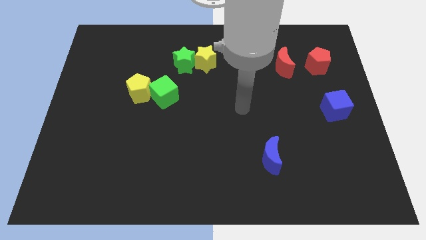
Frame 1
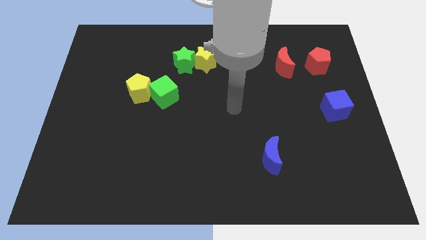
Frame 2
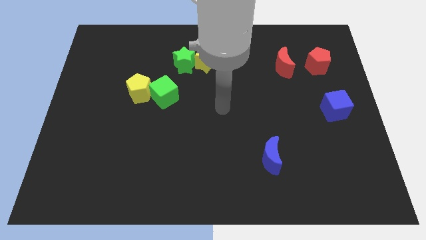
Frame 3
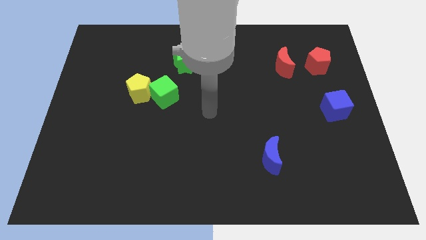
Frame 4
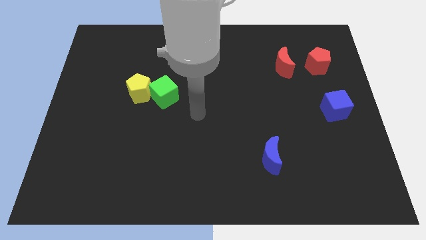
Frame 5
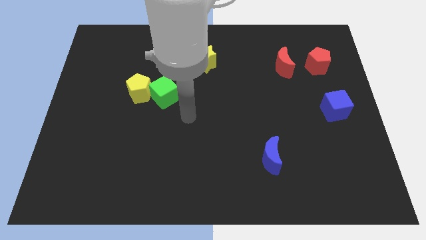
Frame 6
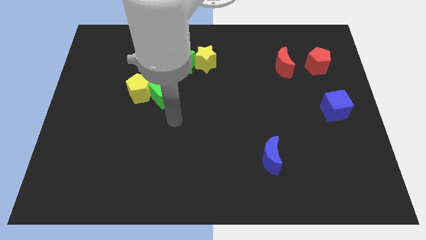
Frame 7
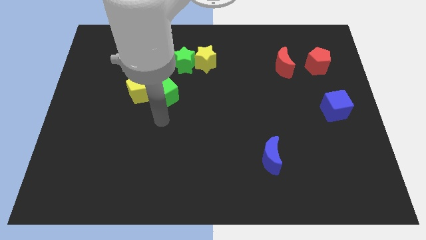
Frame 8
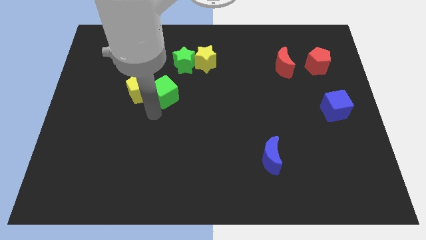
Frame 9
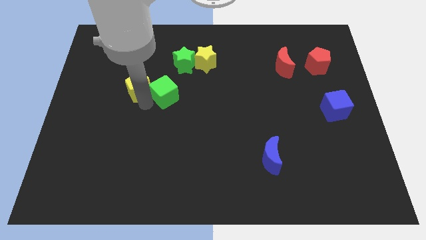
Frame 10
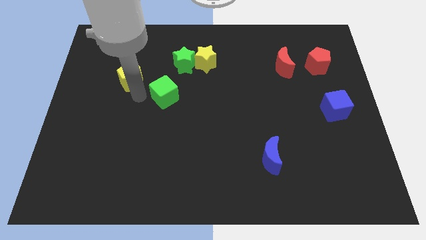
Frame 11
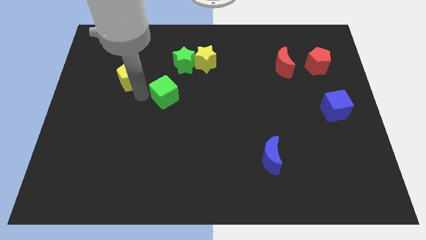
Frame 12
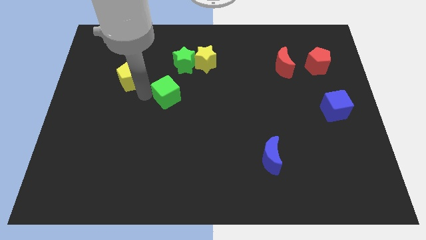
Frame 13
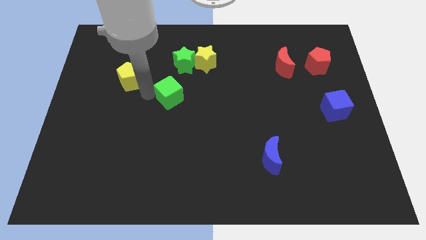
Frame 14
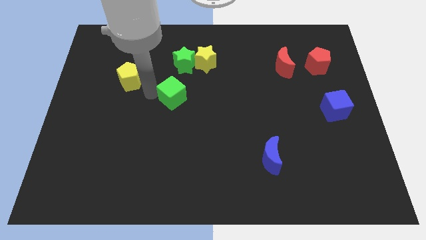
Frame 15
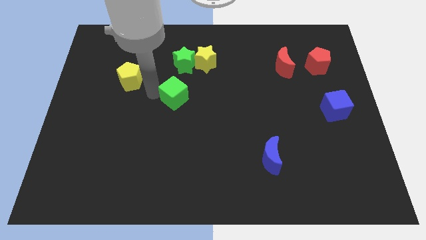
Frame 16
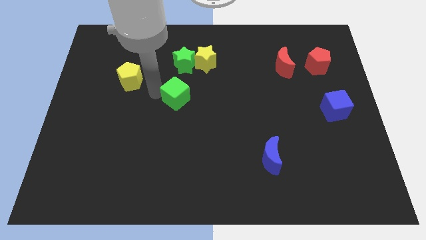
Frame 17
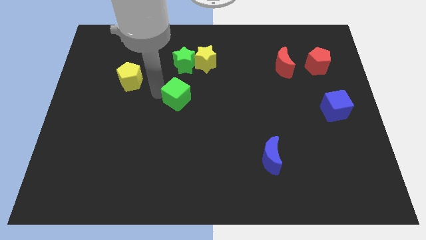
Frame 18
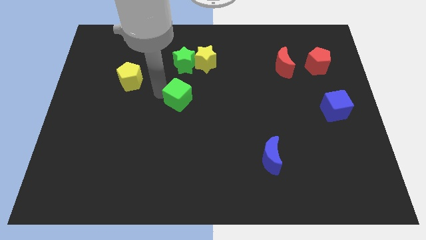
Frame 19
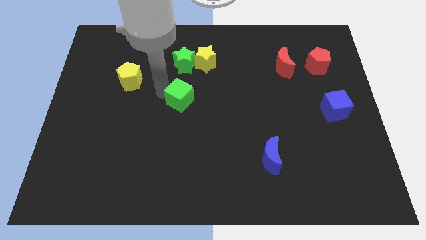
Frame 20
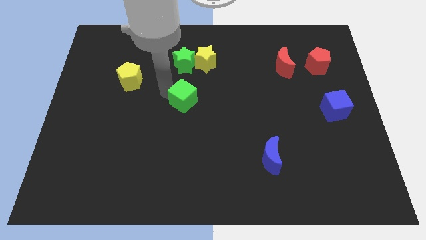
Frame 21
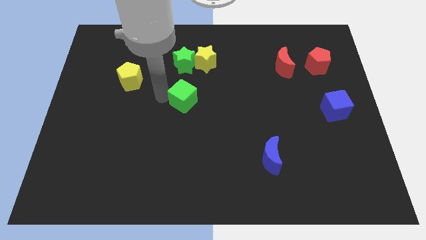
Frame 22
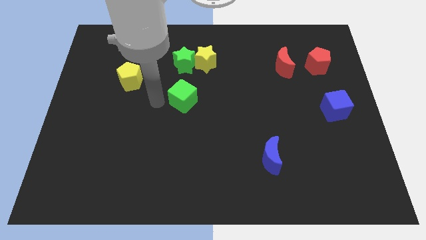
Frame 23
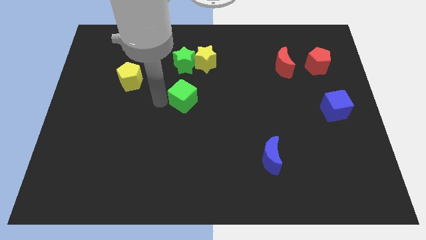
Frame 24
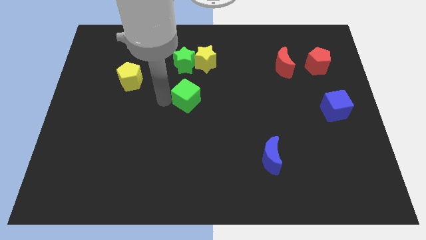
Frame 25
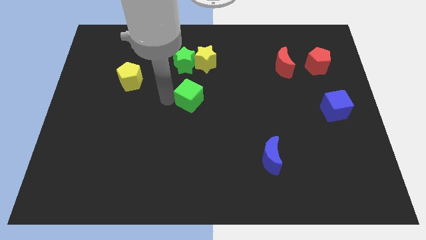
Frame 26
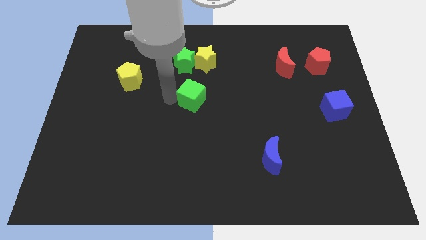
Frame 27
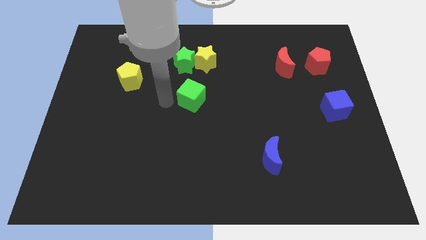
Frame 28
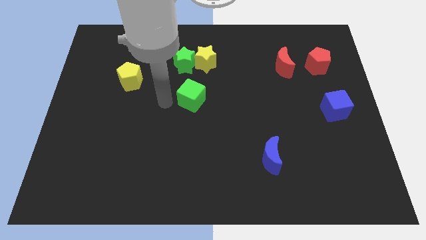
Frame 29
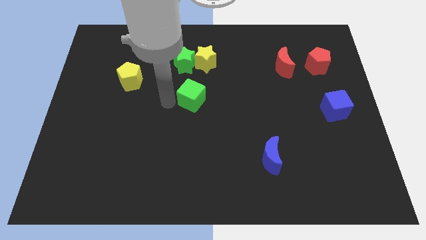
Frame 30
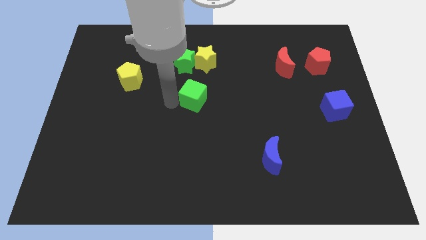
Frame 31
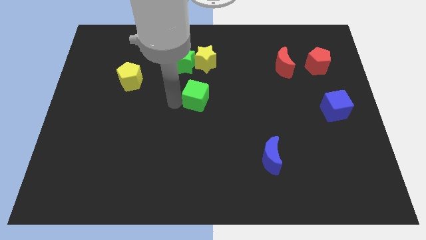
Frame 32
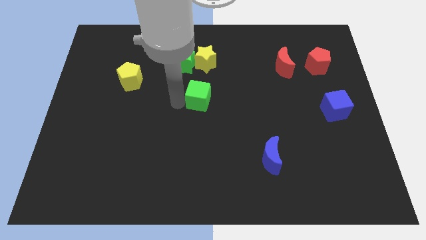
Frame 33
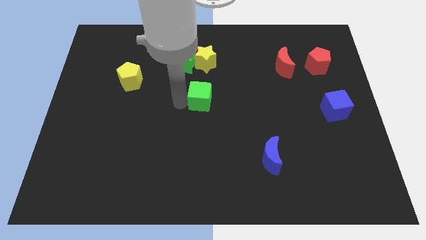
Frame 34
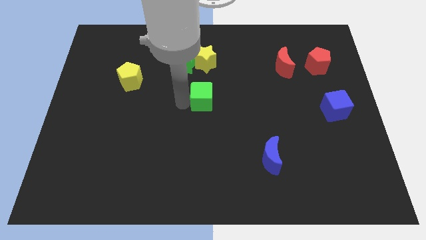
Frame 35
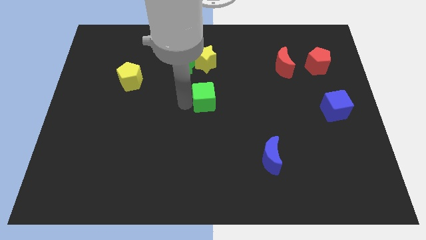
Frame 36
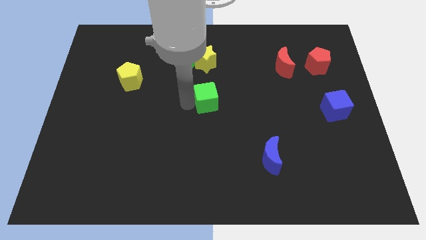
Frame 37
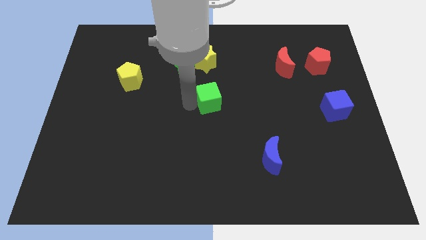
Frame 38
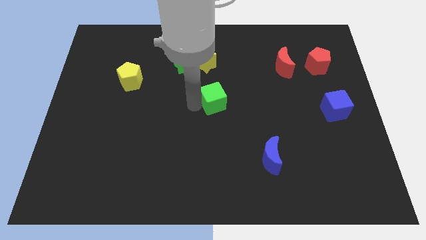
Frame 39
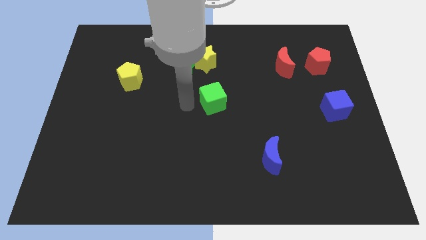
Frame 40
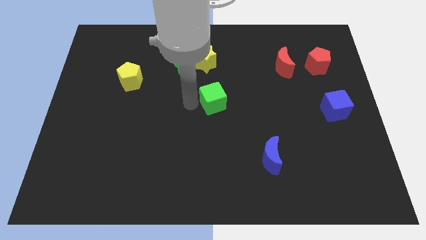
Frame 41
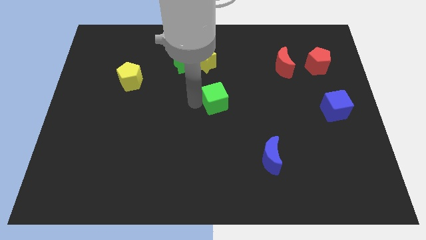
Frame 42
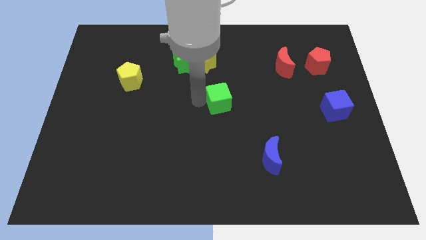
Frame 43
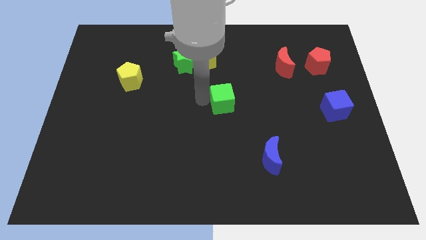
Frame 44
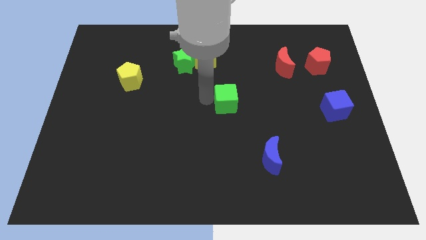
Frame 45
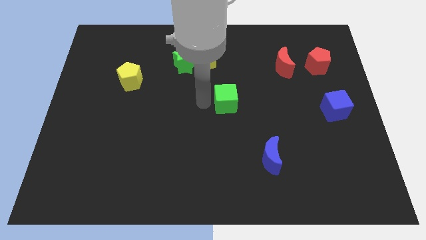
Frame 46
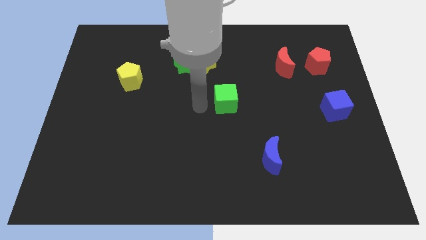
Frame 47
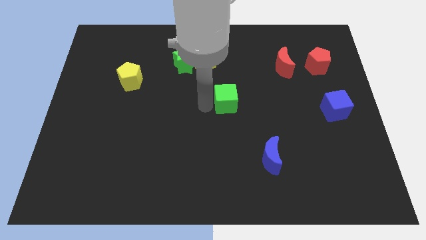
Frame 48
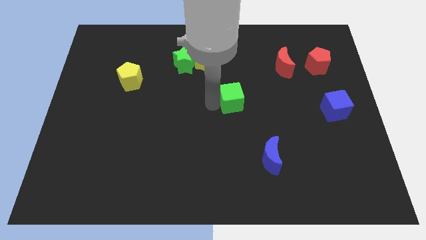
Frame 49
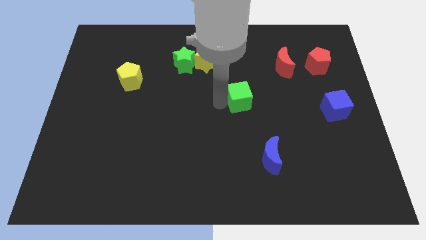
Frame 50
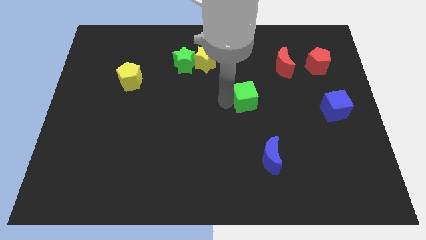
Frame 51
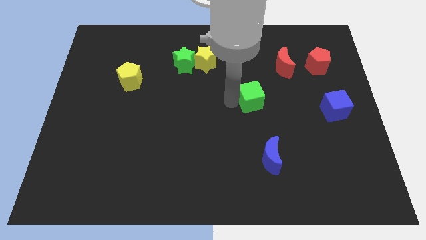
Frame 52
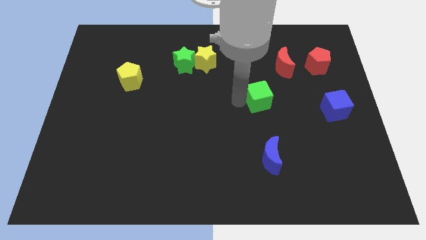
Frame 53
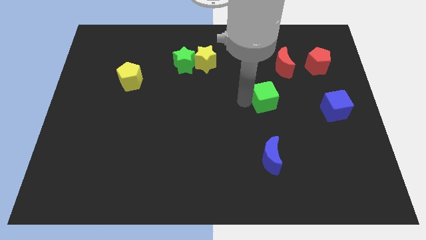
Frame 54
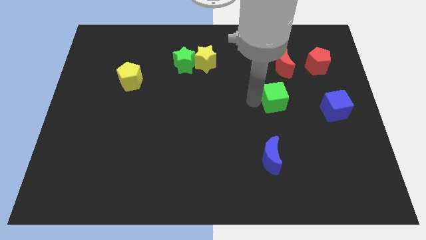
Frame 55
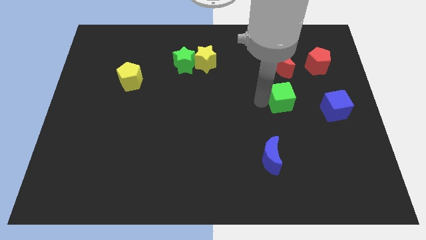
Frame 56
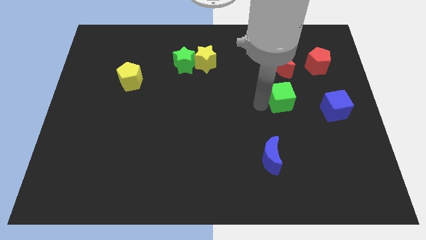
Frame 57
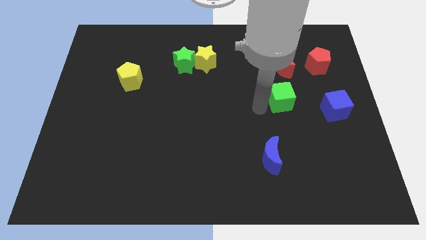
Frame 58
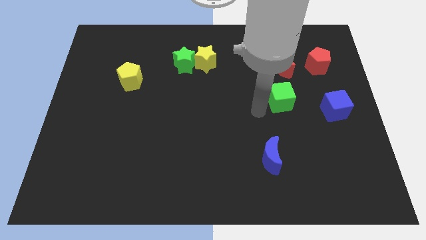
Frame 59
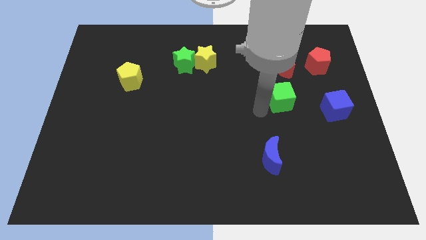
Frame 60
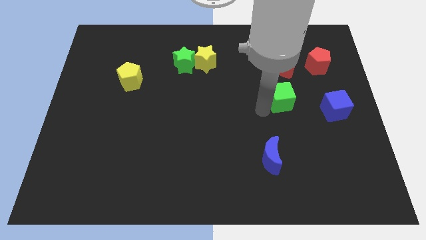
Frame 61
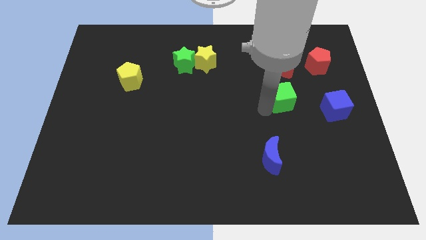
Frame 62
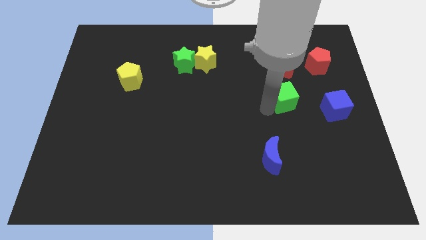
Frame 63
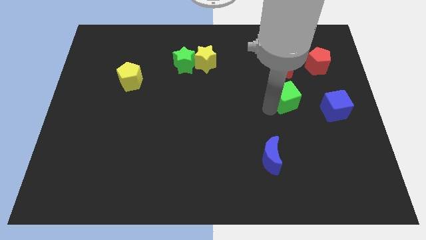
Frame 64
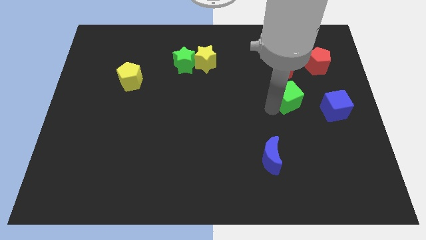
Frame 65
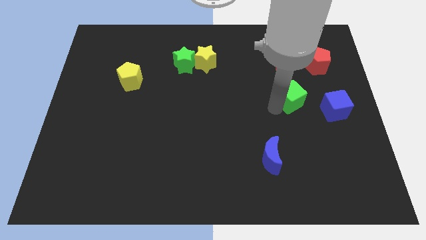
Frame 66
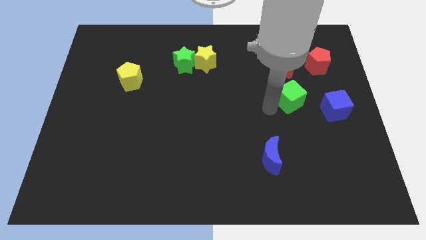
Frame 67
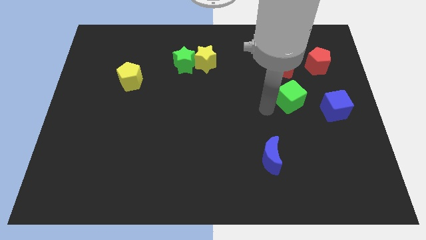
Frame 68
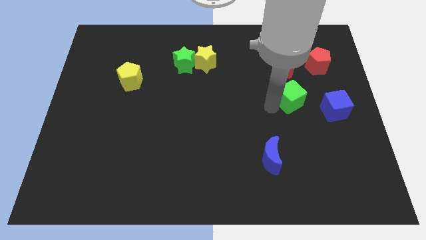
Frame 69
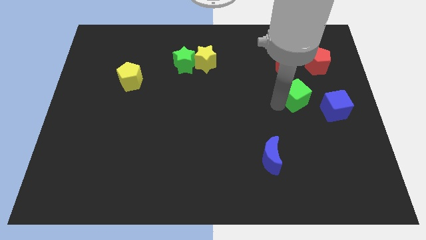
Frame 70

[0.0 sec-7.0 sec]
move the green cube to the top left side of the blue cube
